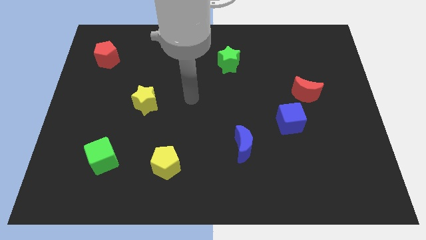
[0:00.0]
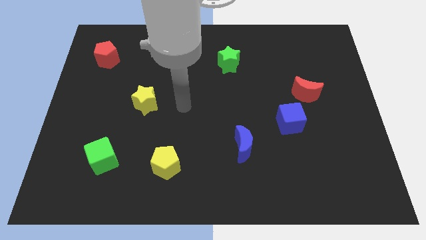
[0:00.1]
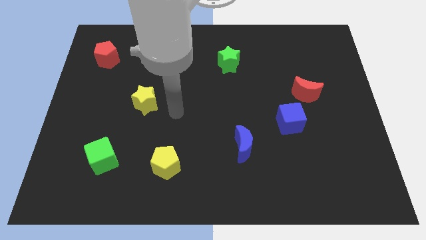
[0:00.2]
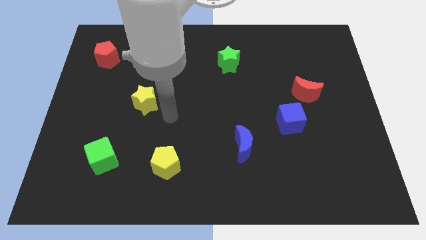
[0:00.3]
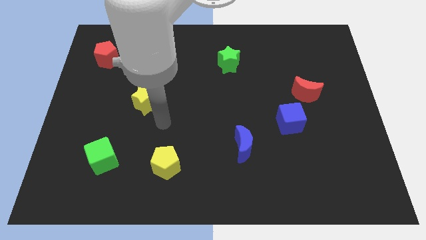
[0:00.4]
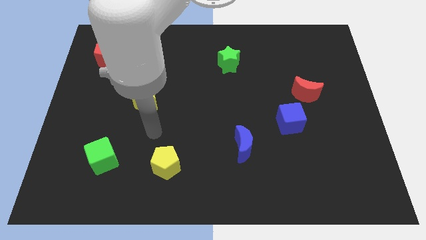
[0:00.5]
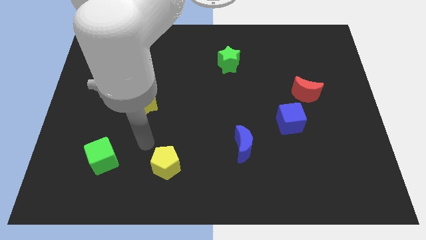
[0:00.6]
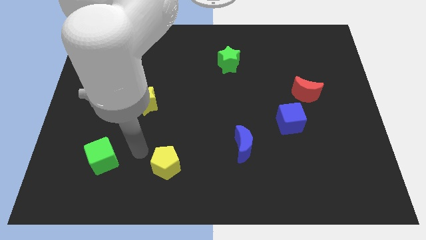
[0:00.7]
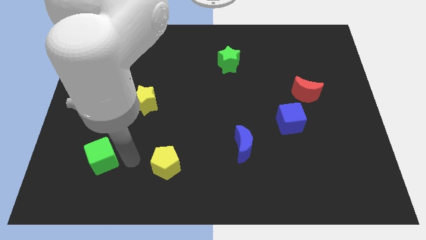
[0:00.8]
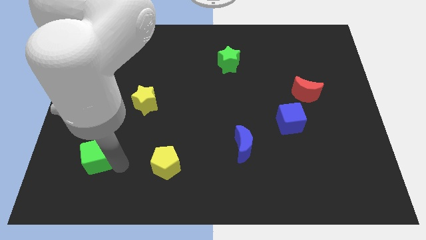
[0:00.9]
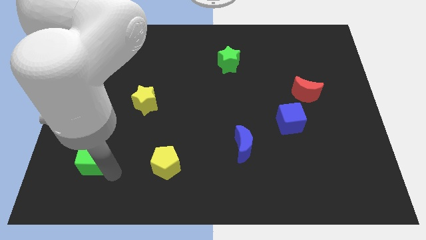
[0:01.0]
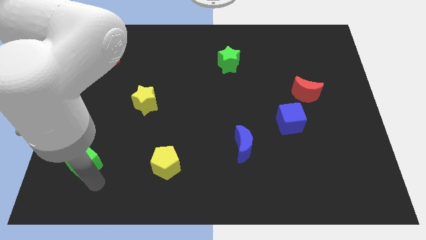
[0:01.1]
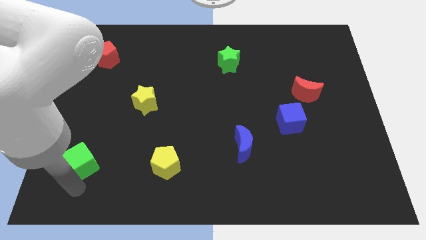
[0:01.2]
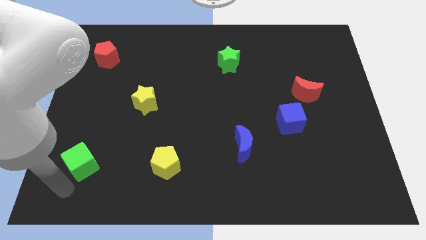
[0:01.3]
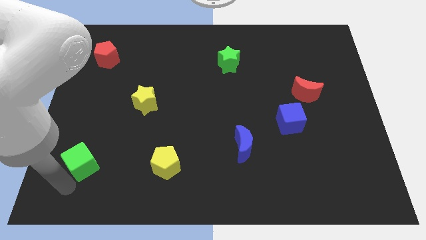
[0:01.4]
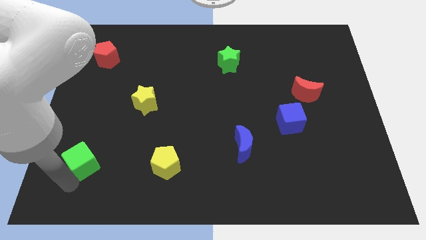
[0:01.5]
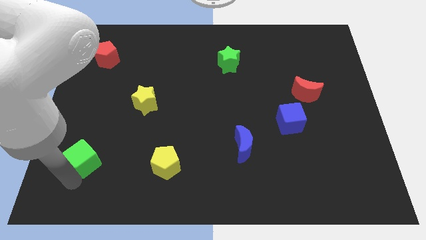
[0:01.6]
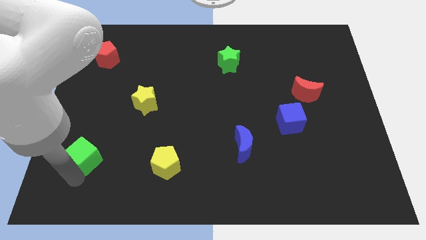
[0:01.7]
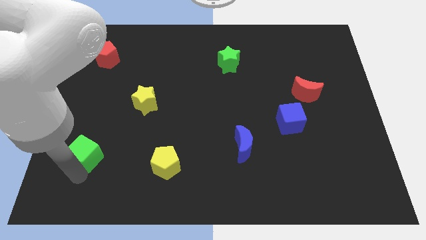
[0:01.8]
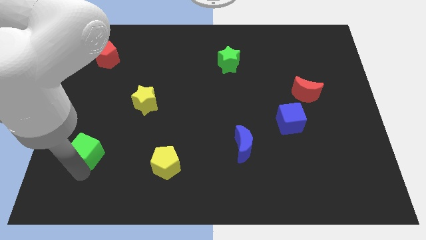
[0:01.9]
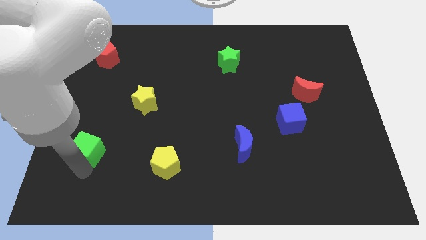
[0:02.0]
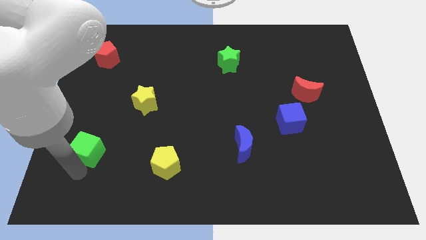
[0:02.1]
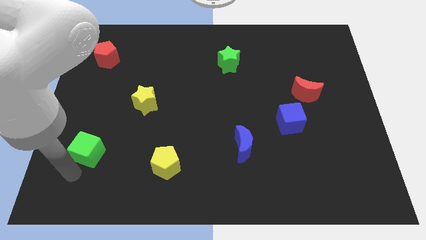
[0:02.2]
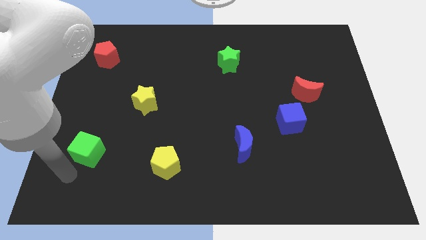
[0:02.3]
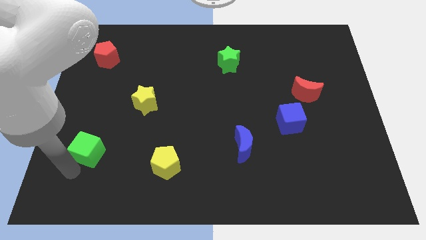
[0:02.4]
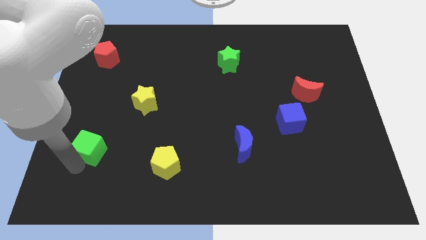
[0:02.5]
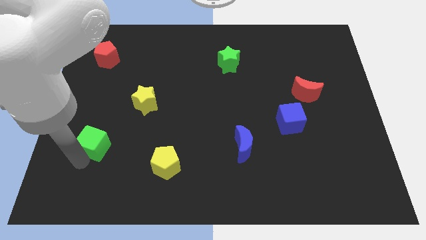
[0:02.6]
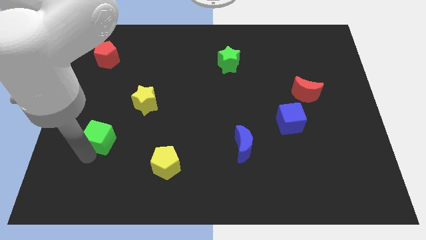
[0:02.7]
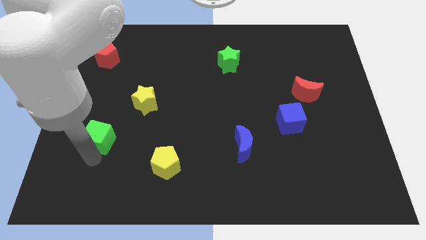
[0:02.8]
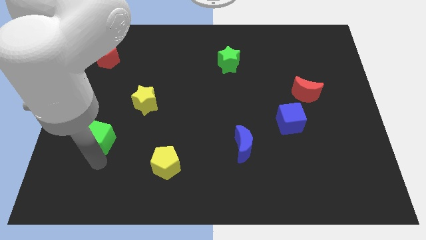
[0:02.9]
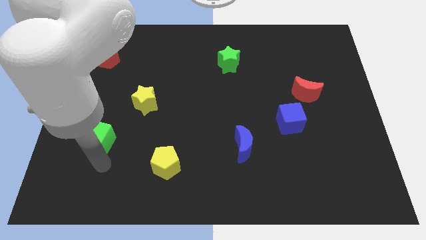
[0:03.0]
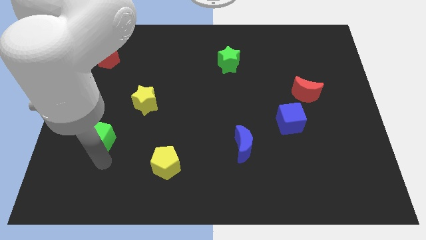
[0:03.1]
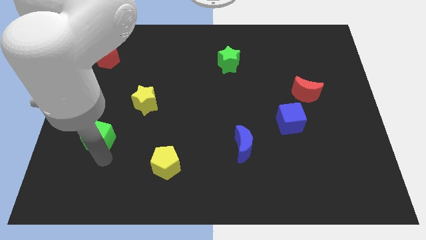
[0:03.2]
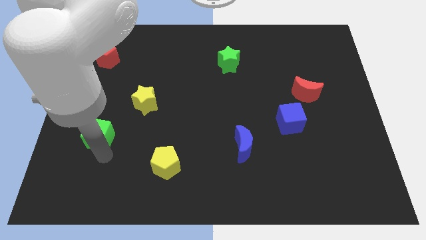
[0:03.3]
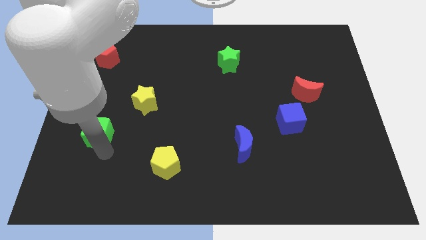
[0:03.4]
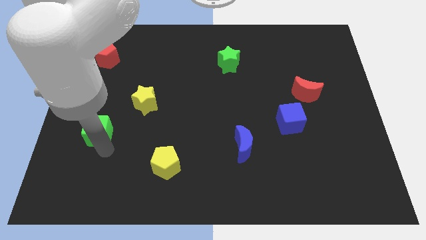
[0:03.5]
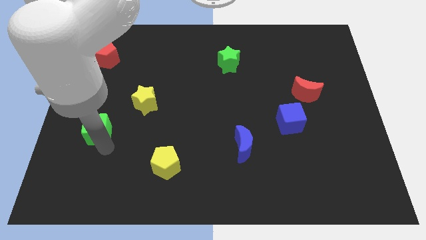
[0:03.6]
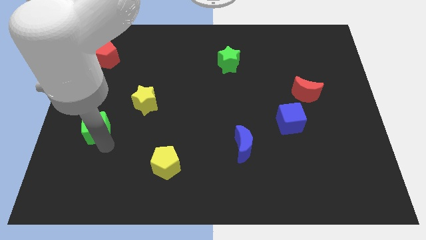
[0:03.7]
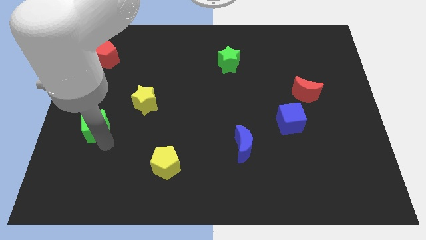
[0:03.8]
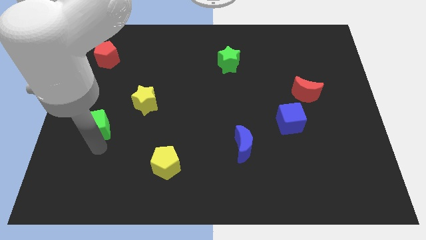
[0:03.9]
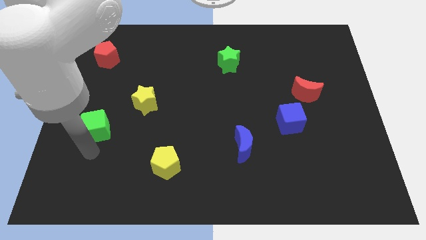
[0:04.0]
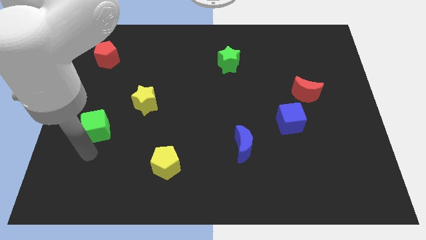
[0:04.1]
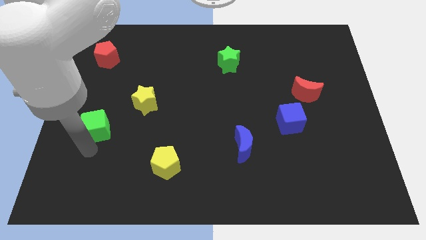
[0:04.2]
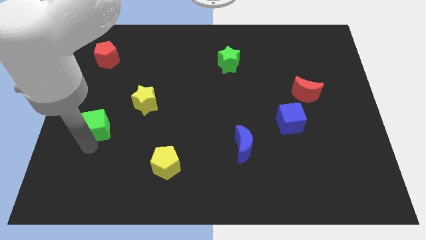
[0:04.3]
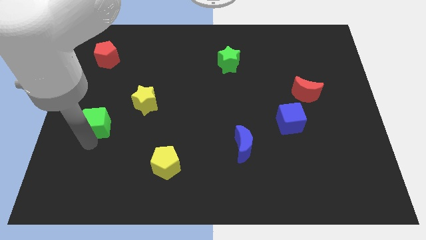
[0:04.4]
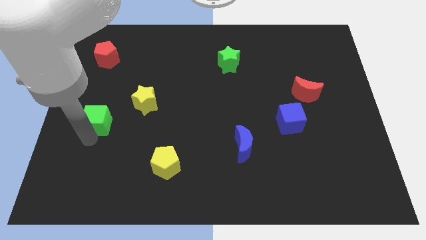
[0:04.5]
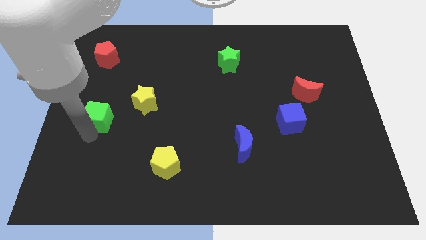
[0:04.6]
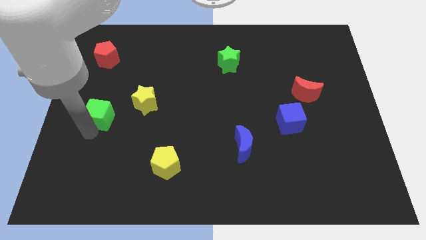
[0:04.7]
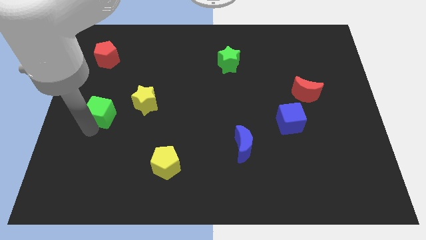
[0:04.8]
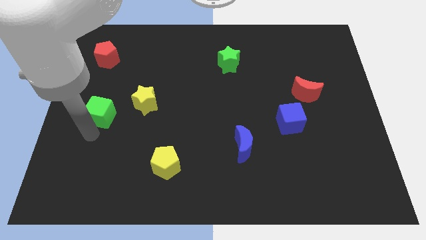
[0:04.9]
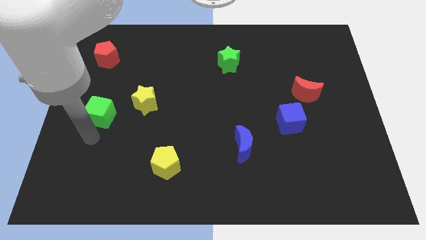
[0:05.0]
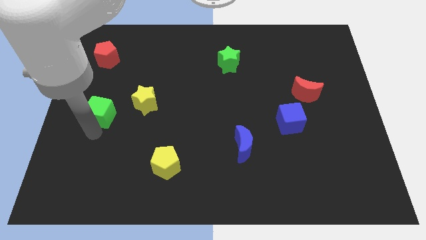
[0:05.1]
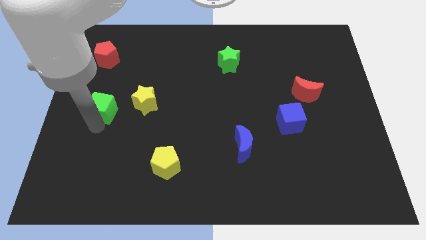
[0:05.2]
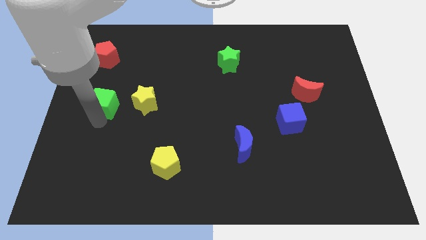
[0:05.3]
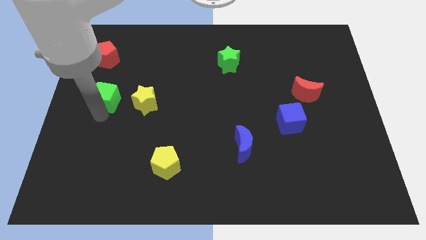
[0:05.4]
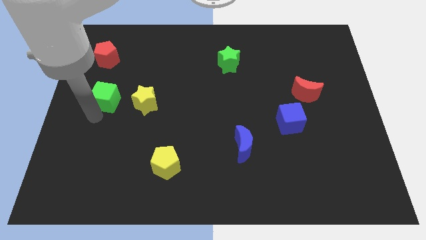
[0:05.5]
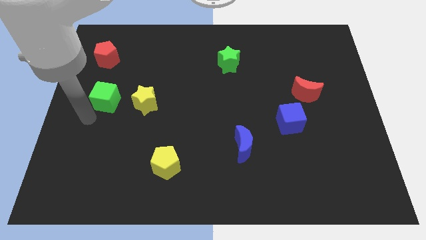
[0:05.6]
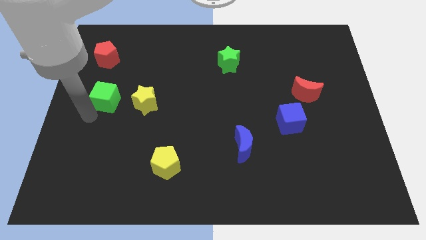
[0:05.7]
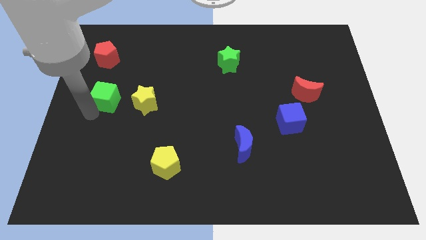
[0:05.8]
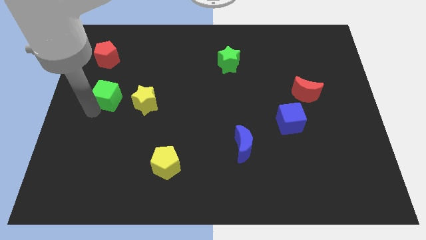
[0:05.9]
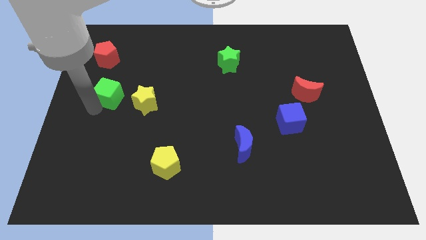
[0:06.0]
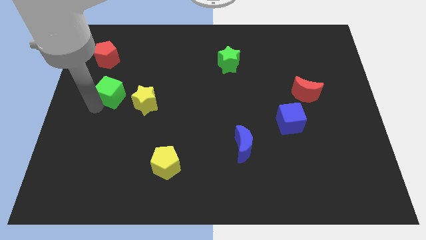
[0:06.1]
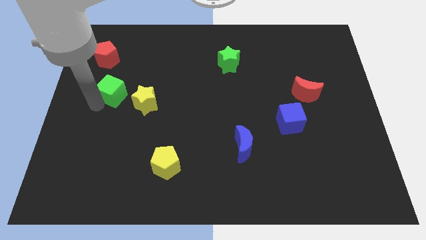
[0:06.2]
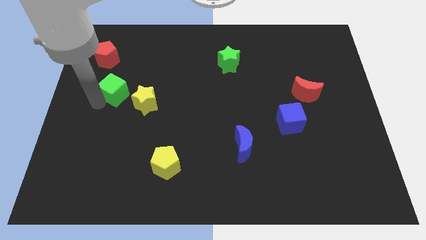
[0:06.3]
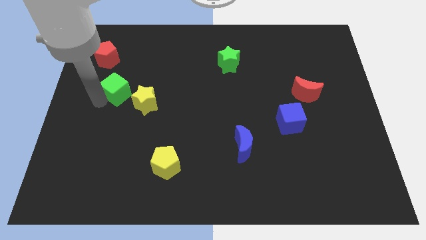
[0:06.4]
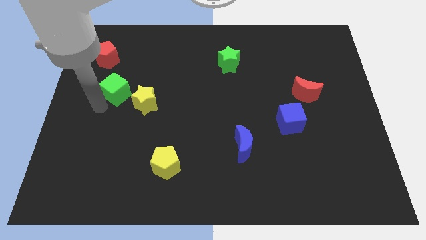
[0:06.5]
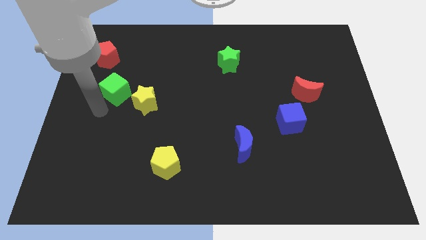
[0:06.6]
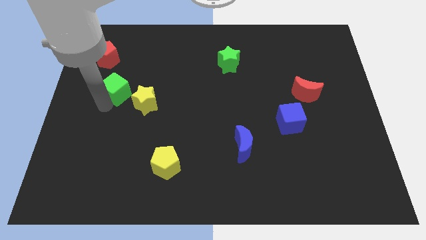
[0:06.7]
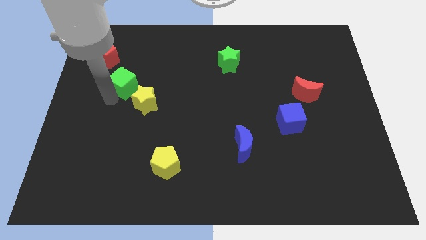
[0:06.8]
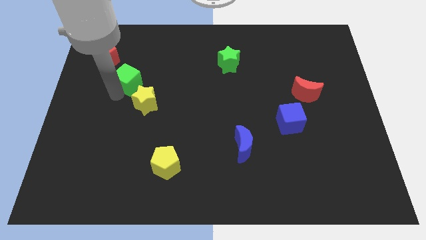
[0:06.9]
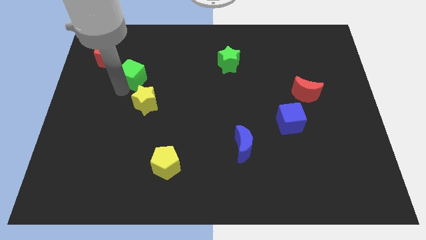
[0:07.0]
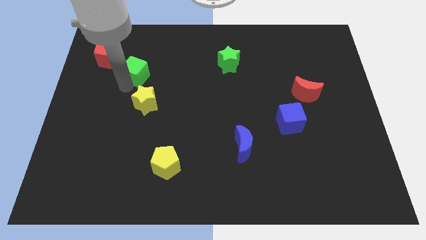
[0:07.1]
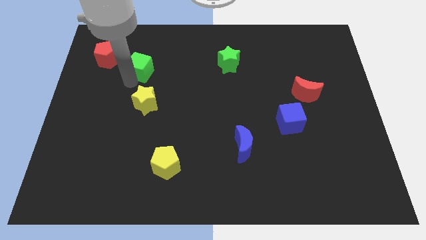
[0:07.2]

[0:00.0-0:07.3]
slide the green cube to the right of the red pentagon
